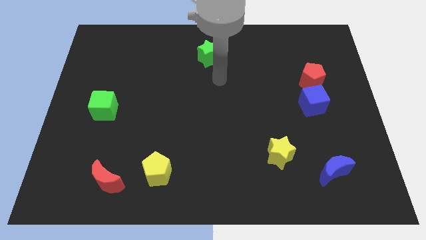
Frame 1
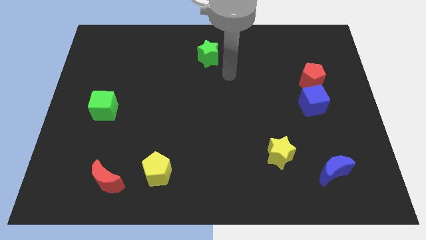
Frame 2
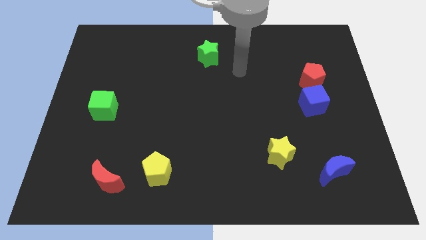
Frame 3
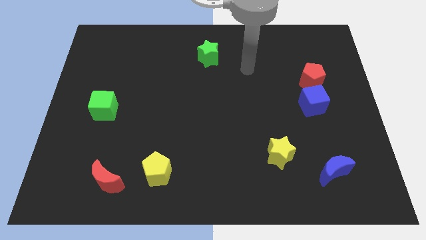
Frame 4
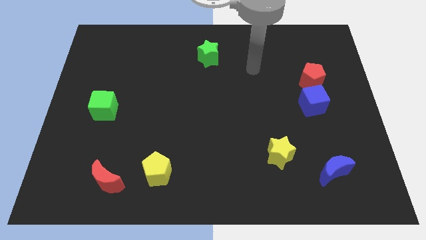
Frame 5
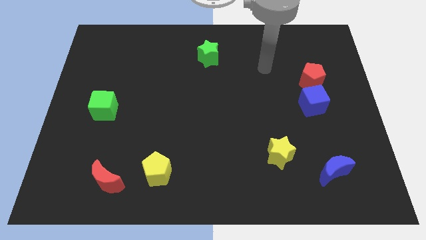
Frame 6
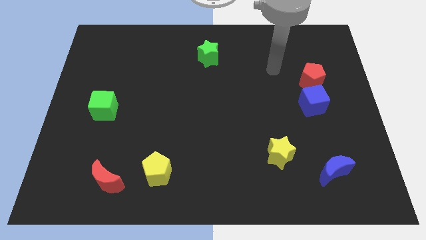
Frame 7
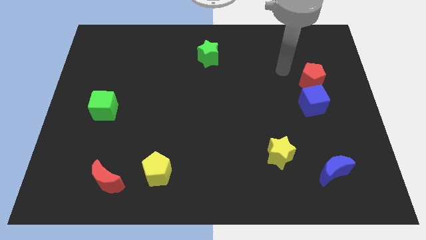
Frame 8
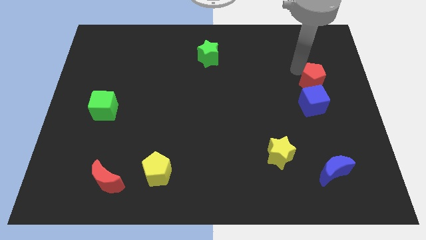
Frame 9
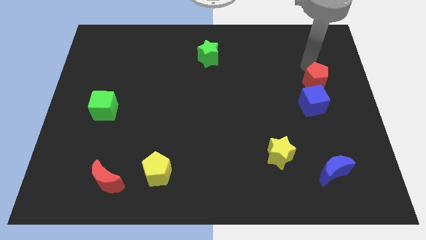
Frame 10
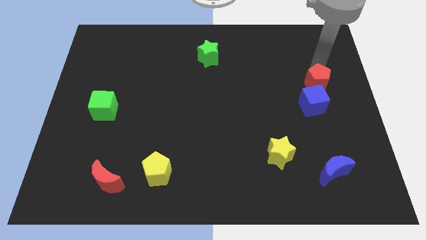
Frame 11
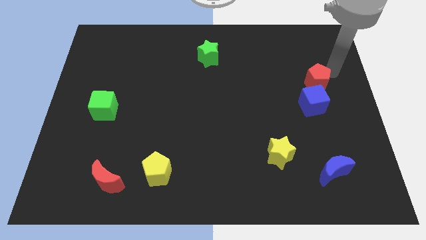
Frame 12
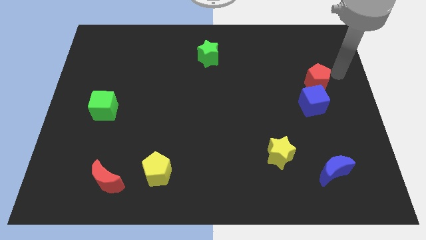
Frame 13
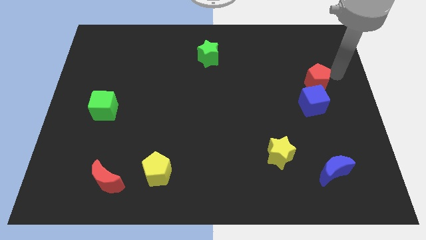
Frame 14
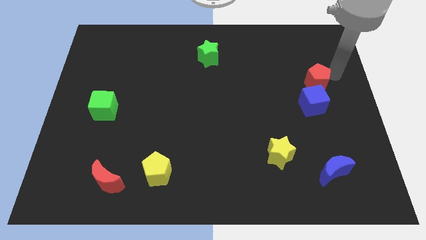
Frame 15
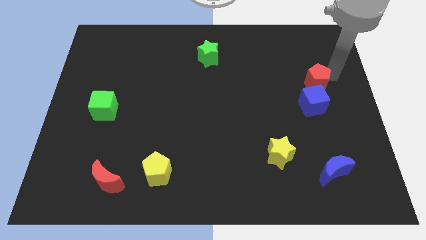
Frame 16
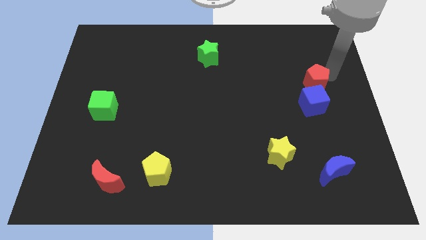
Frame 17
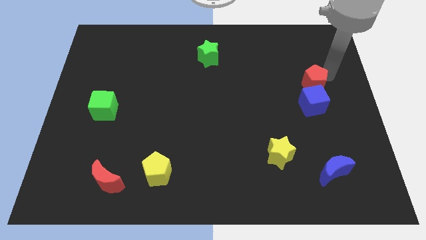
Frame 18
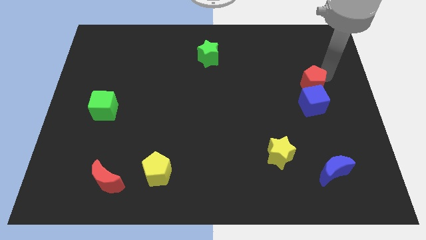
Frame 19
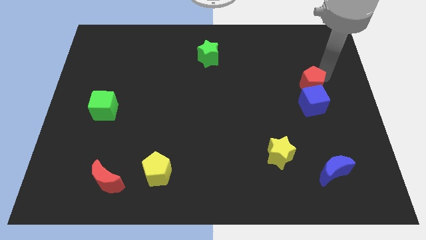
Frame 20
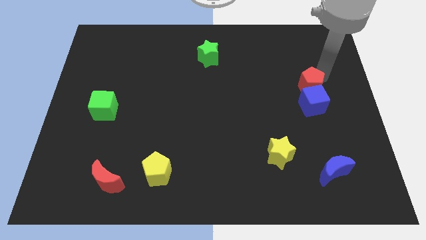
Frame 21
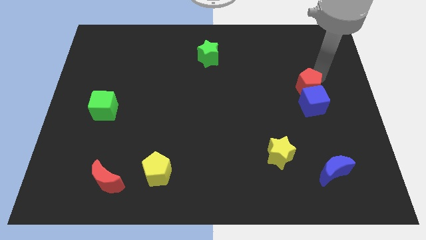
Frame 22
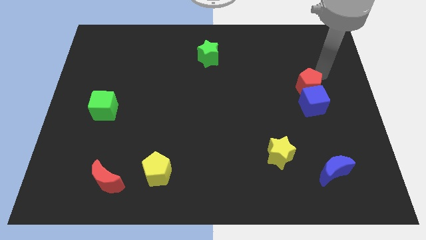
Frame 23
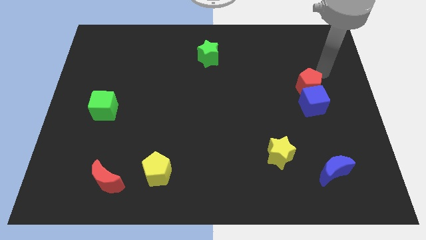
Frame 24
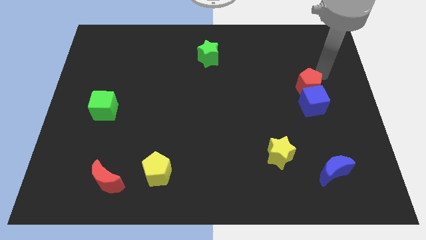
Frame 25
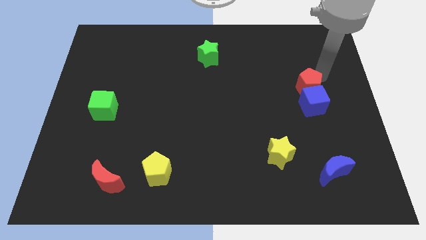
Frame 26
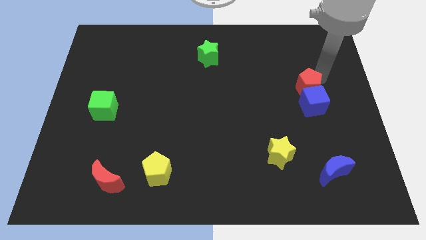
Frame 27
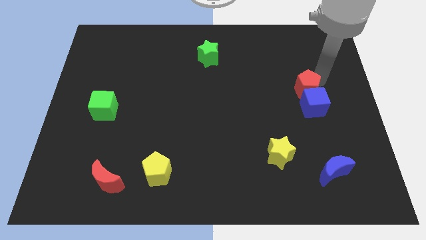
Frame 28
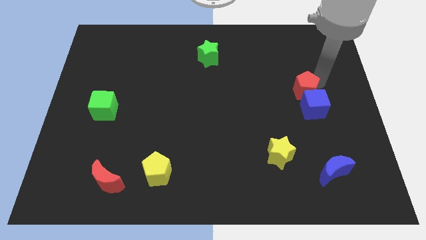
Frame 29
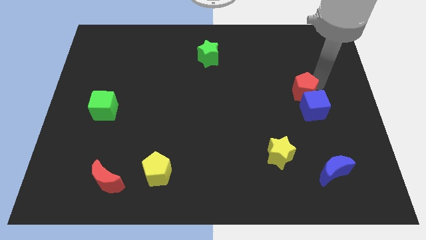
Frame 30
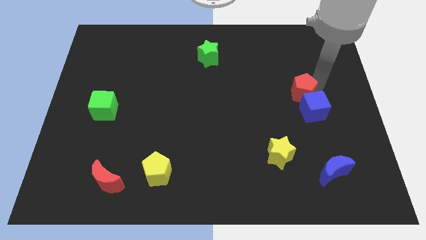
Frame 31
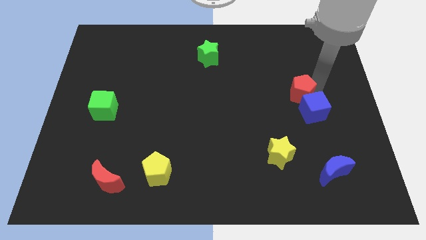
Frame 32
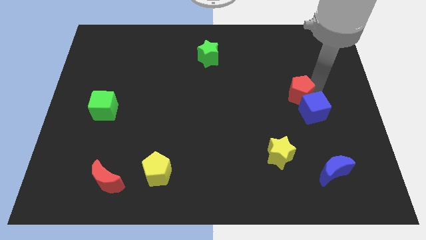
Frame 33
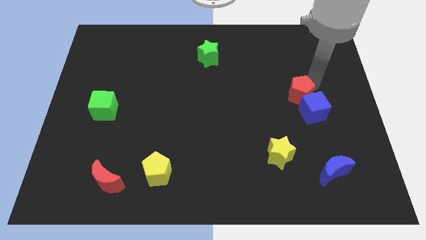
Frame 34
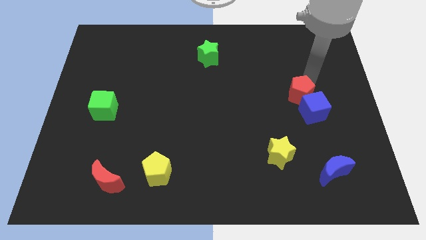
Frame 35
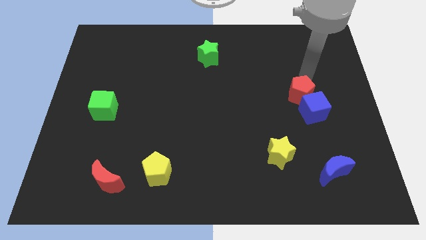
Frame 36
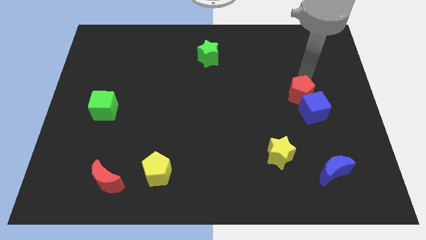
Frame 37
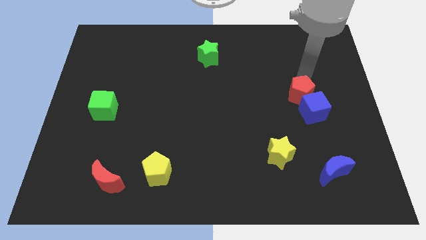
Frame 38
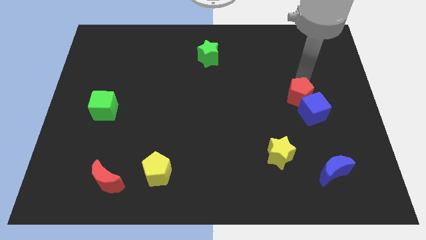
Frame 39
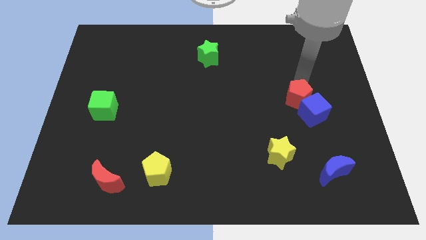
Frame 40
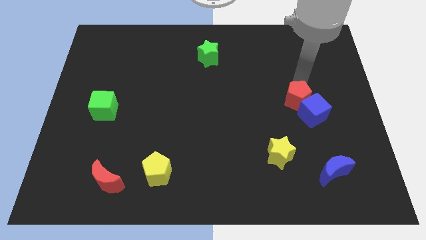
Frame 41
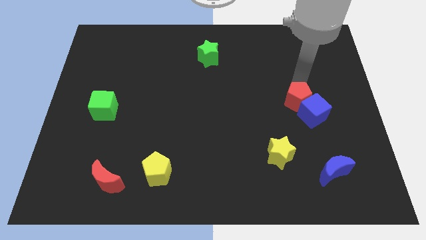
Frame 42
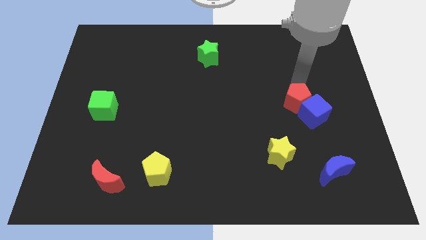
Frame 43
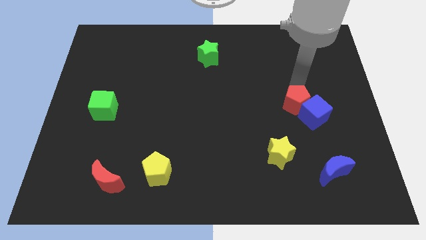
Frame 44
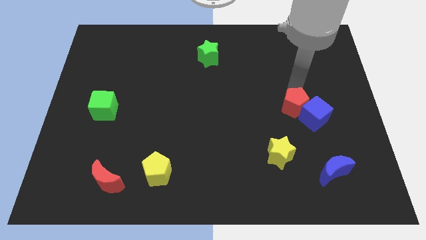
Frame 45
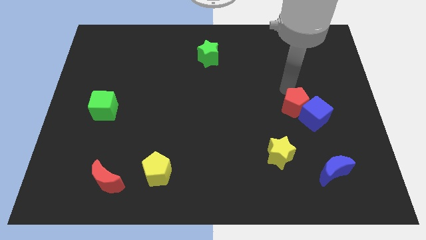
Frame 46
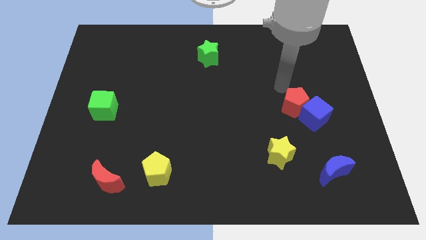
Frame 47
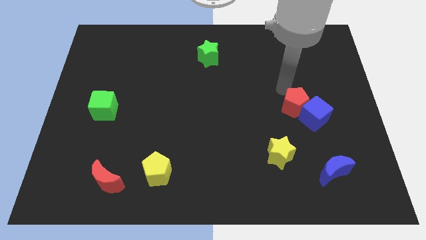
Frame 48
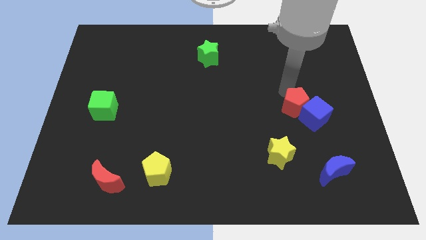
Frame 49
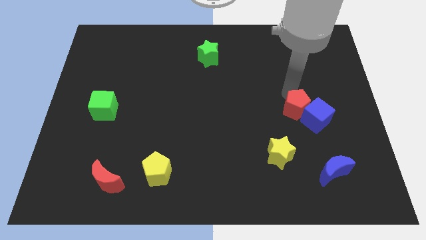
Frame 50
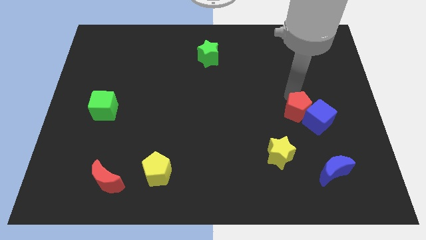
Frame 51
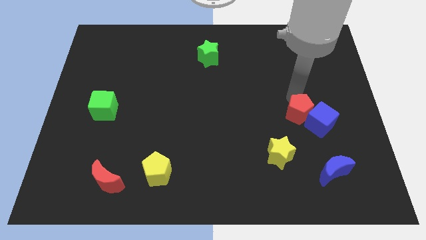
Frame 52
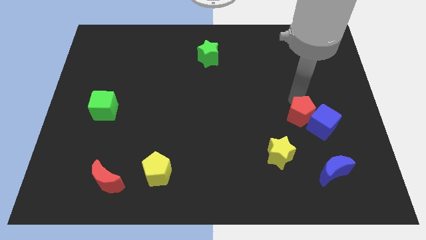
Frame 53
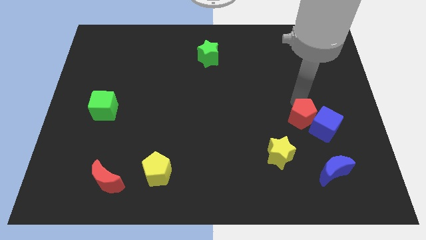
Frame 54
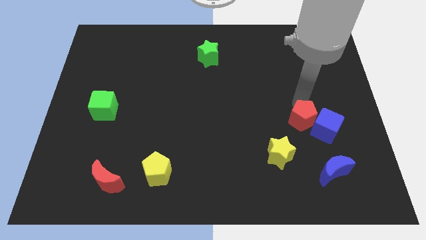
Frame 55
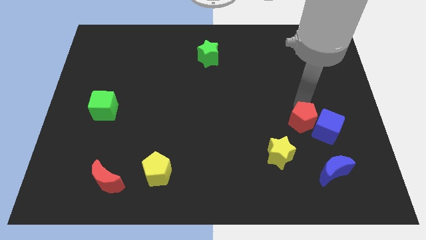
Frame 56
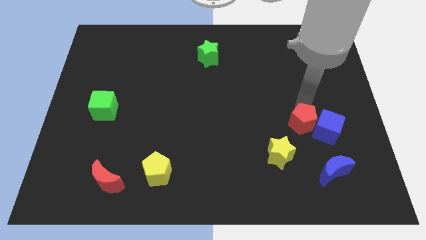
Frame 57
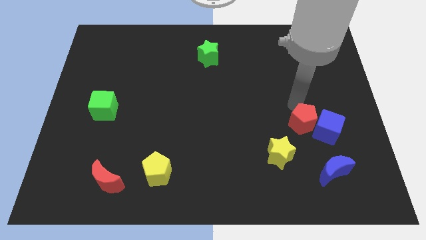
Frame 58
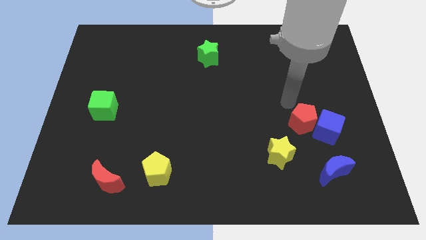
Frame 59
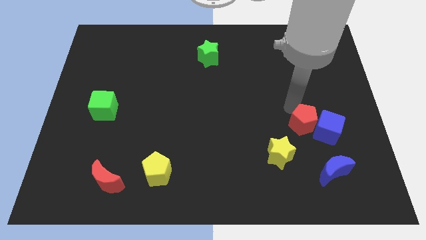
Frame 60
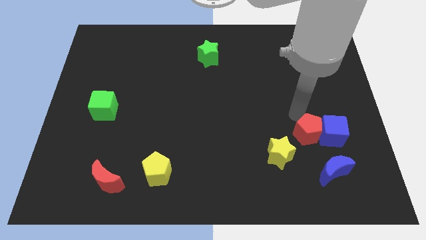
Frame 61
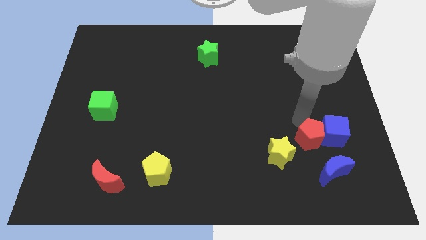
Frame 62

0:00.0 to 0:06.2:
slide the red pentagon just right of the yellow star

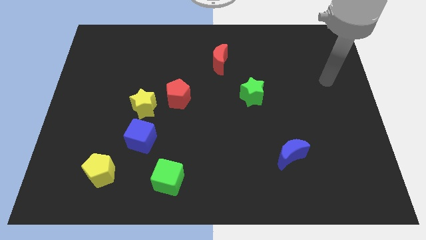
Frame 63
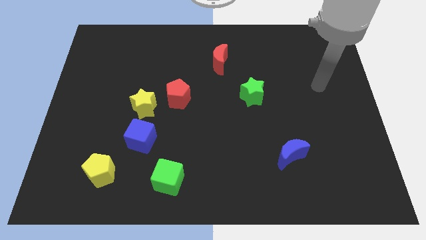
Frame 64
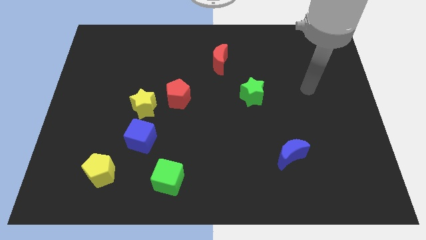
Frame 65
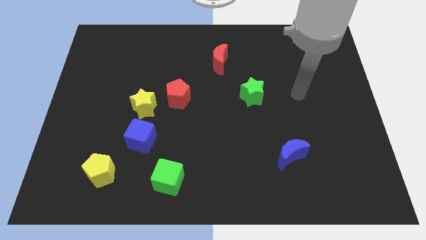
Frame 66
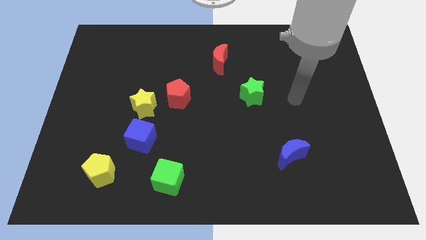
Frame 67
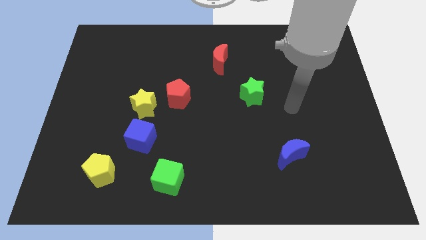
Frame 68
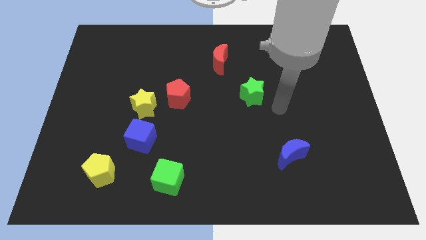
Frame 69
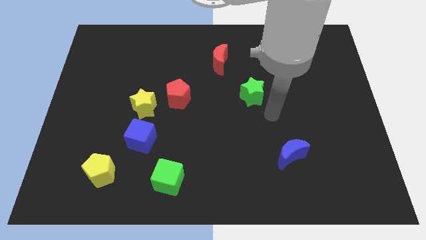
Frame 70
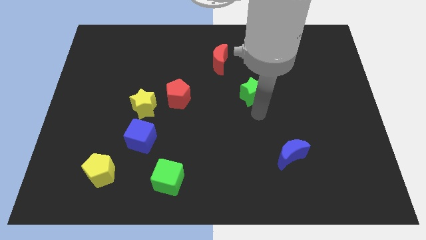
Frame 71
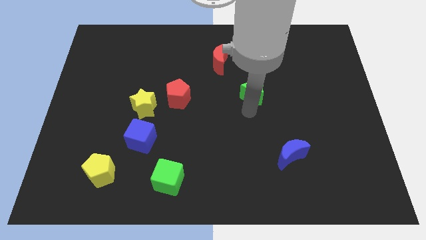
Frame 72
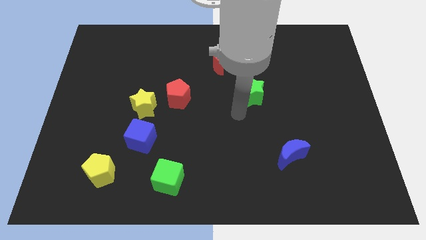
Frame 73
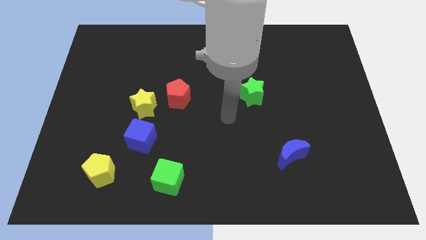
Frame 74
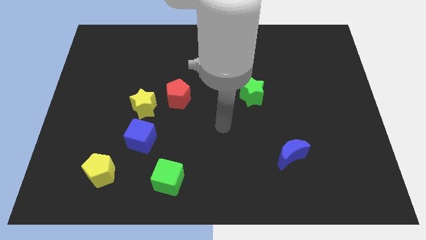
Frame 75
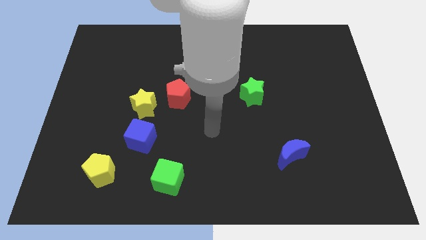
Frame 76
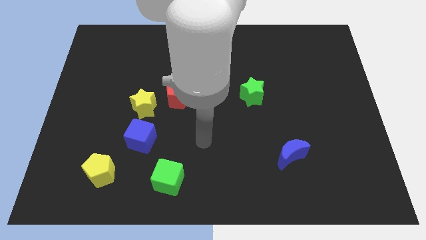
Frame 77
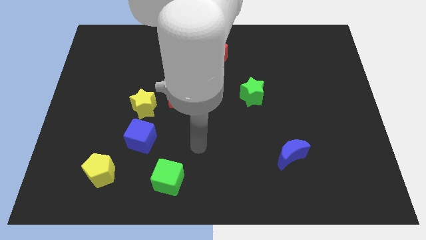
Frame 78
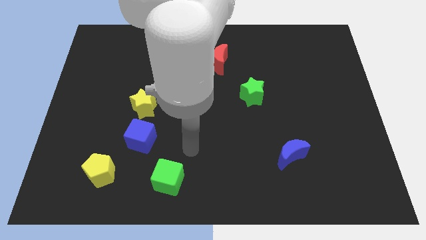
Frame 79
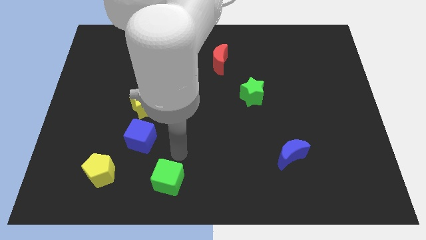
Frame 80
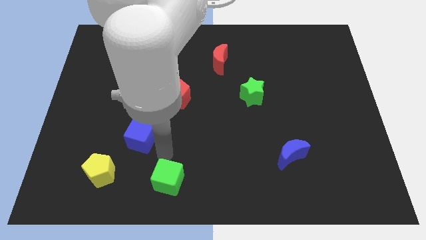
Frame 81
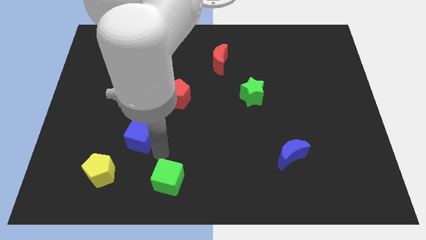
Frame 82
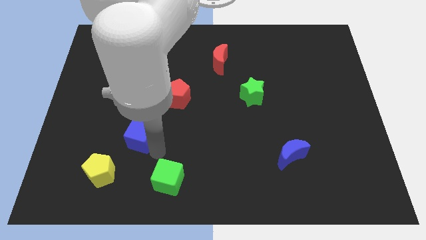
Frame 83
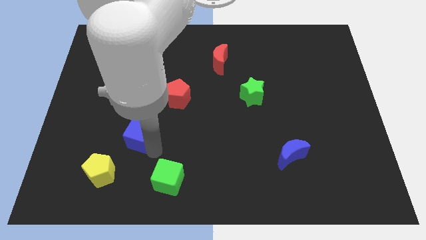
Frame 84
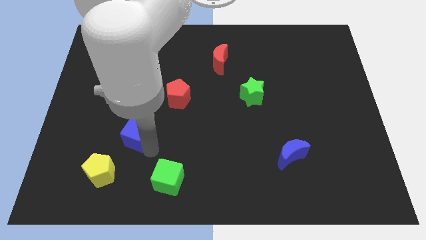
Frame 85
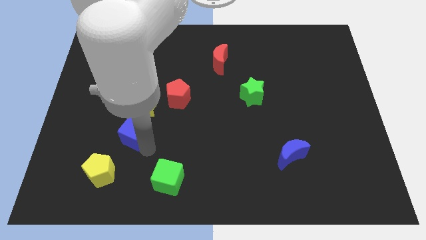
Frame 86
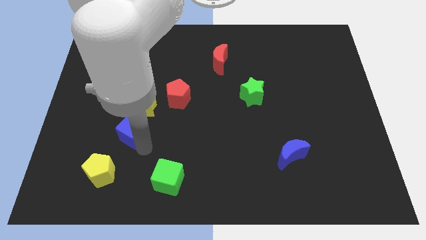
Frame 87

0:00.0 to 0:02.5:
move the blue cube to the bottom left of the yellow star
